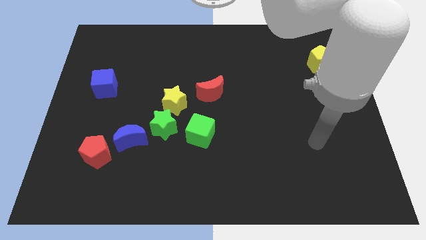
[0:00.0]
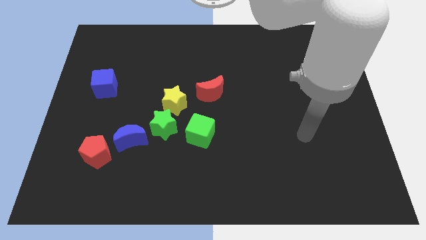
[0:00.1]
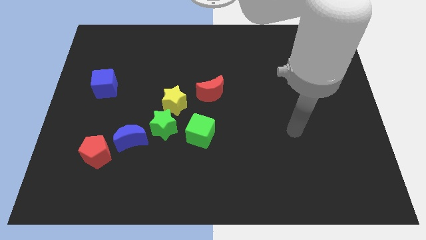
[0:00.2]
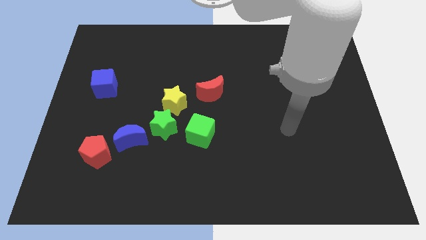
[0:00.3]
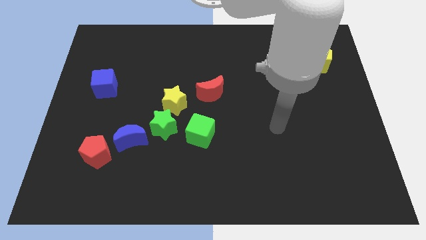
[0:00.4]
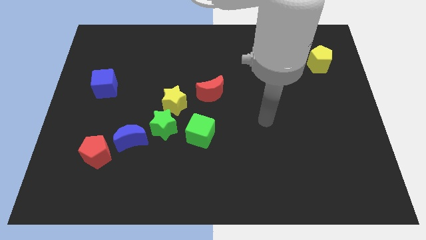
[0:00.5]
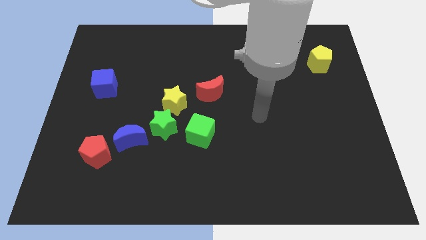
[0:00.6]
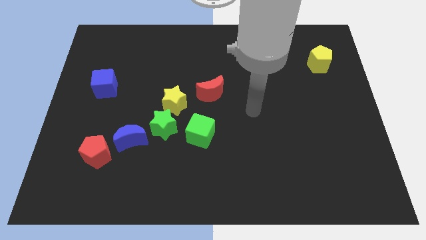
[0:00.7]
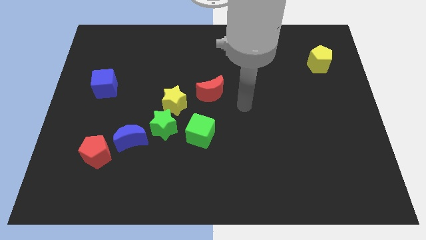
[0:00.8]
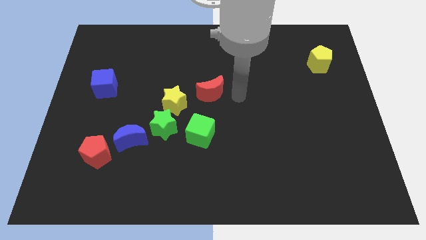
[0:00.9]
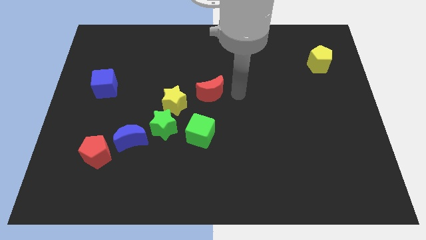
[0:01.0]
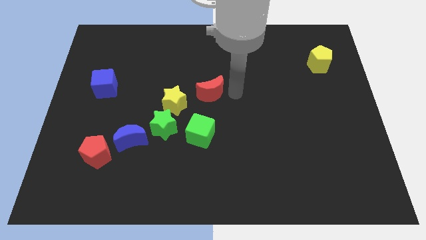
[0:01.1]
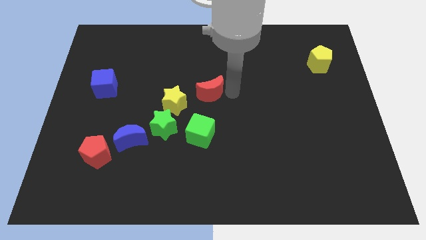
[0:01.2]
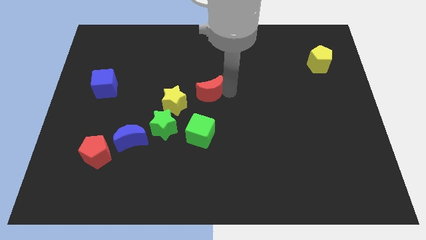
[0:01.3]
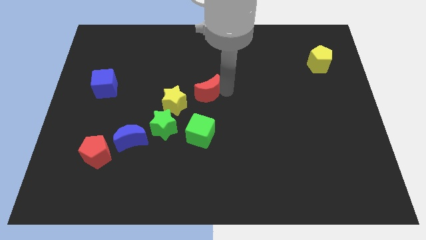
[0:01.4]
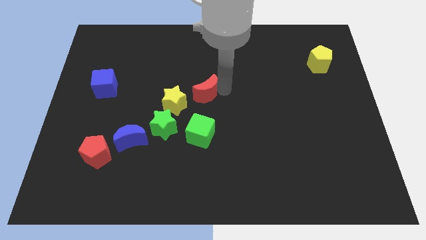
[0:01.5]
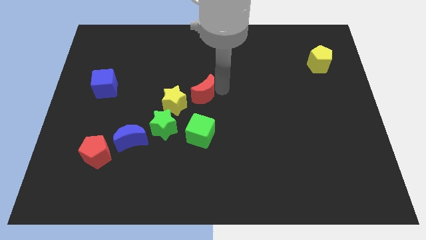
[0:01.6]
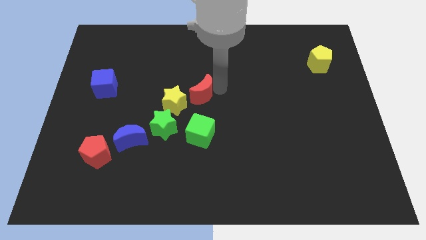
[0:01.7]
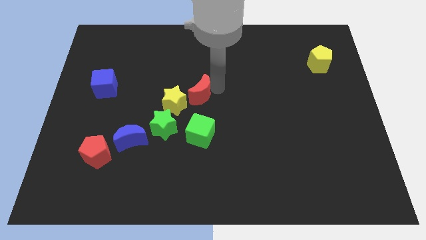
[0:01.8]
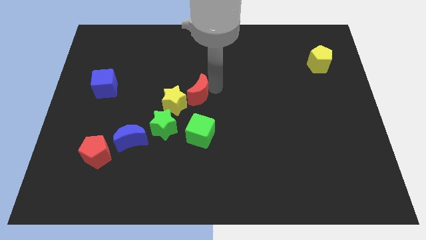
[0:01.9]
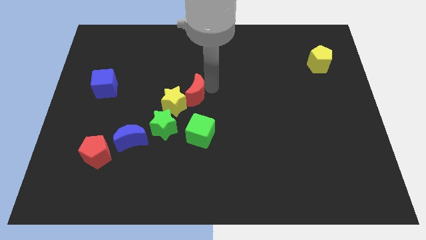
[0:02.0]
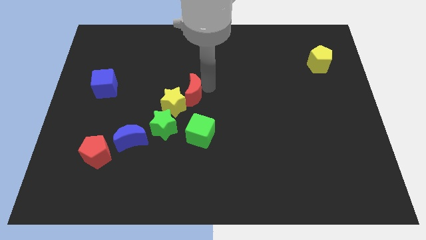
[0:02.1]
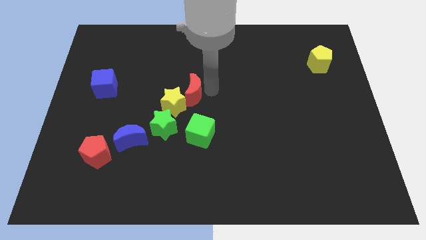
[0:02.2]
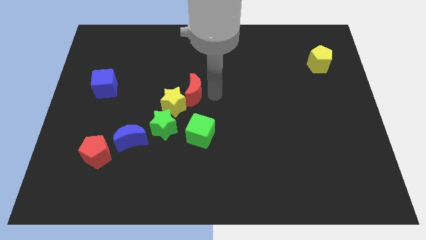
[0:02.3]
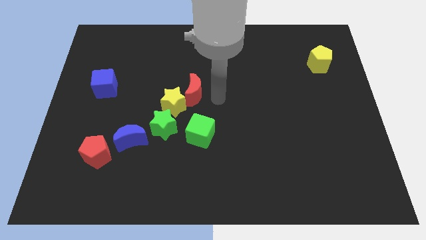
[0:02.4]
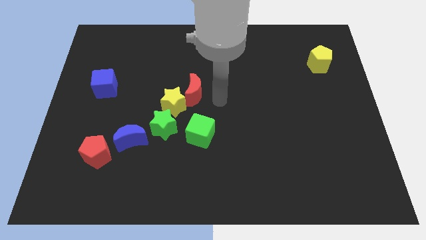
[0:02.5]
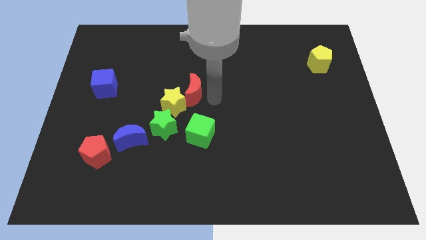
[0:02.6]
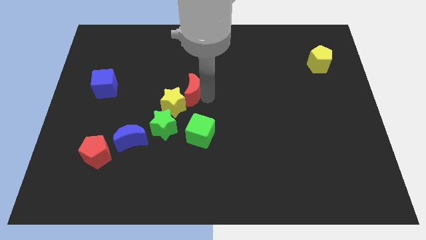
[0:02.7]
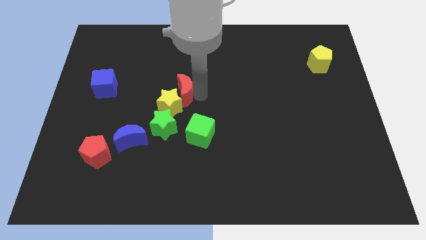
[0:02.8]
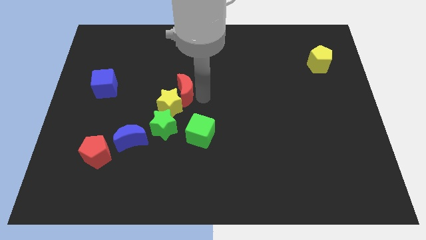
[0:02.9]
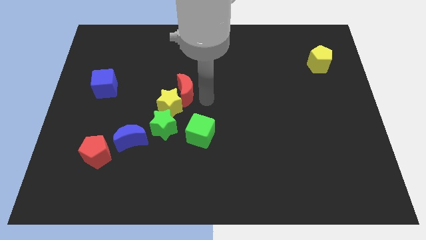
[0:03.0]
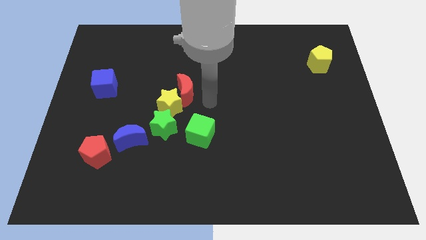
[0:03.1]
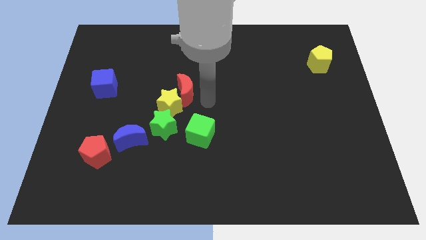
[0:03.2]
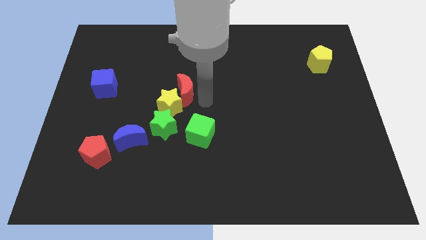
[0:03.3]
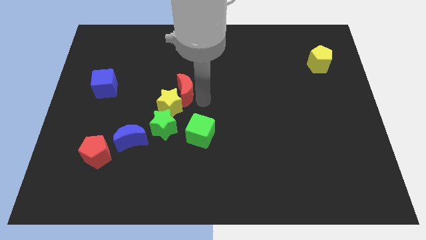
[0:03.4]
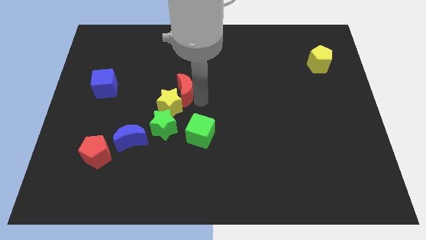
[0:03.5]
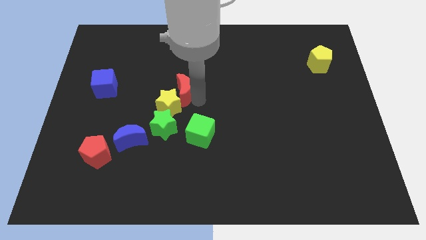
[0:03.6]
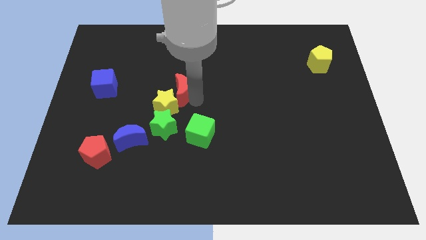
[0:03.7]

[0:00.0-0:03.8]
slightly push the red moon left

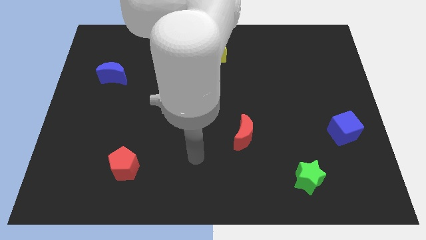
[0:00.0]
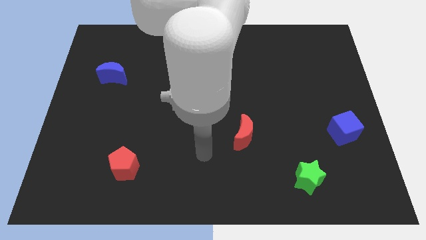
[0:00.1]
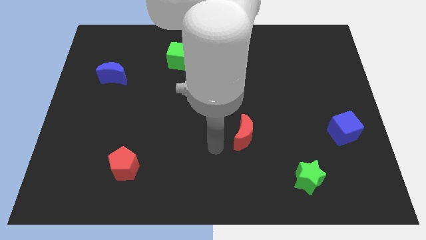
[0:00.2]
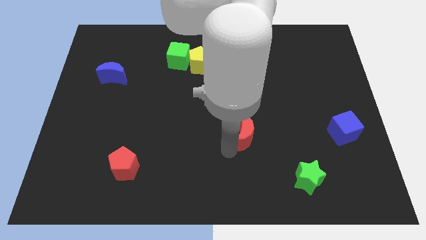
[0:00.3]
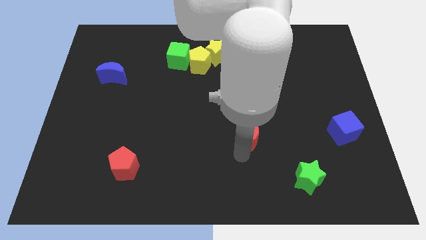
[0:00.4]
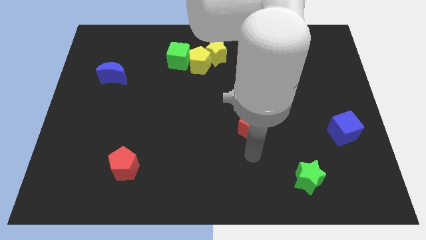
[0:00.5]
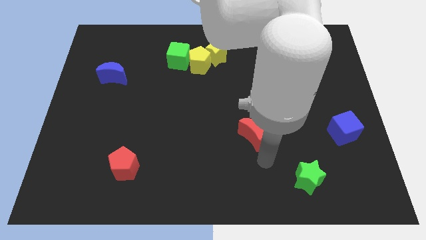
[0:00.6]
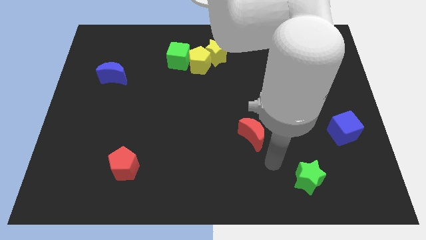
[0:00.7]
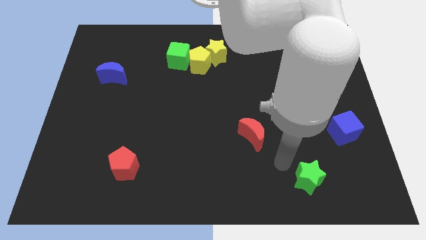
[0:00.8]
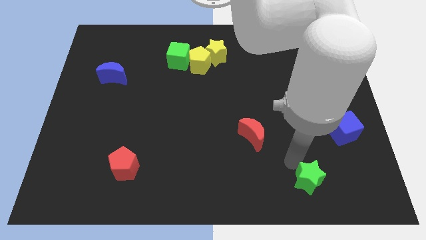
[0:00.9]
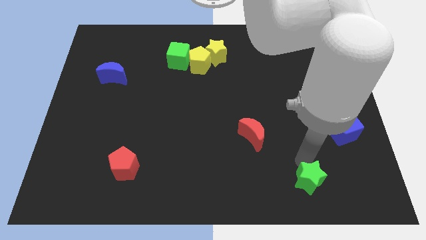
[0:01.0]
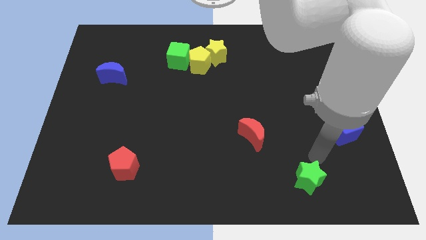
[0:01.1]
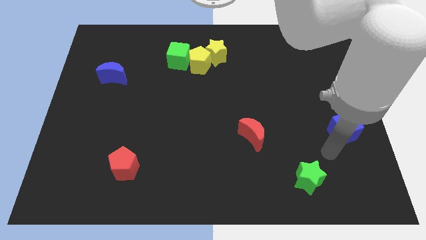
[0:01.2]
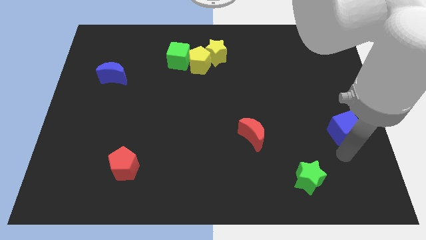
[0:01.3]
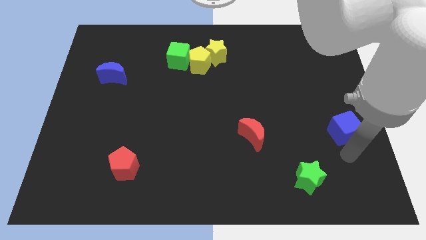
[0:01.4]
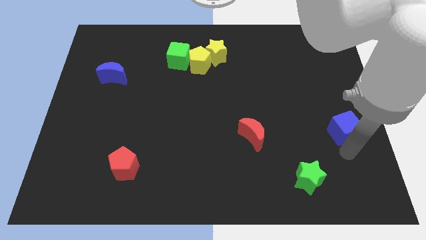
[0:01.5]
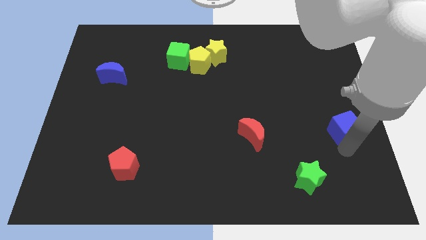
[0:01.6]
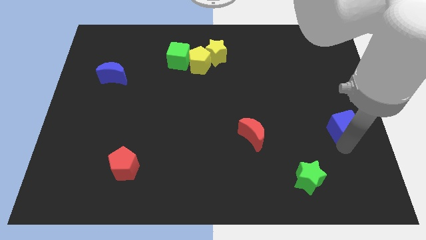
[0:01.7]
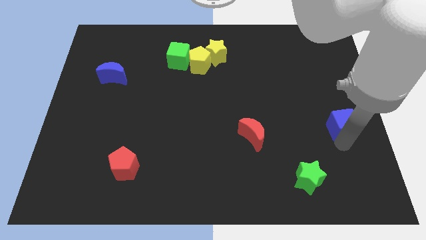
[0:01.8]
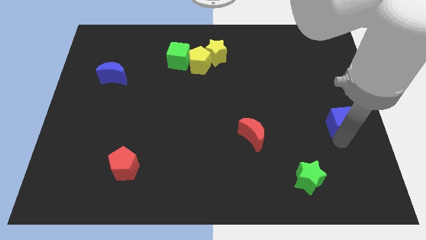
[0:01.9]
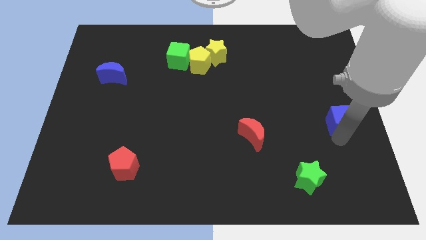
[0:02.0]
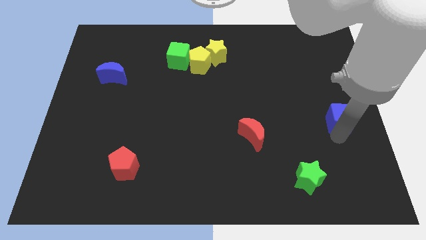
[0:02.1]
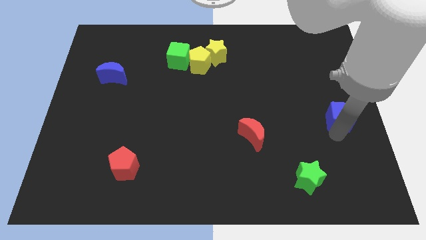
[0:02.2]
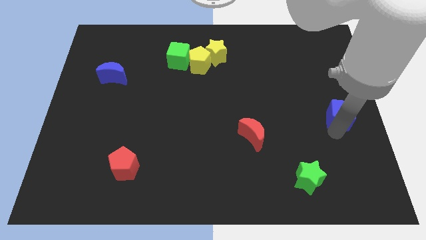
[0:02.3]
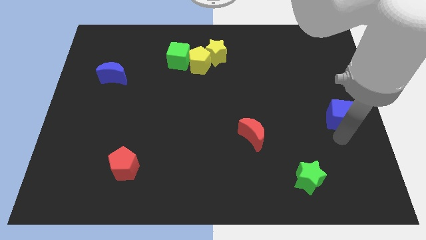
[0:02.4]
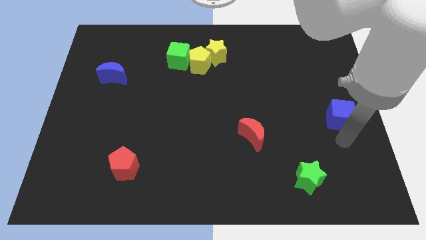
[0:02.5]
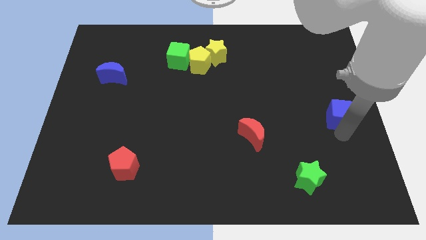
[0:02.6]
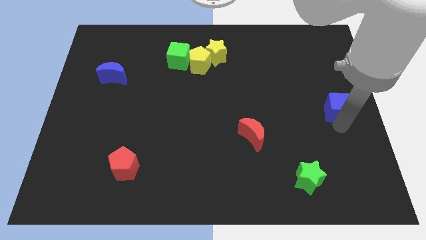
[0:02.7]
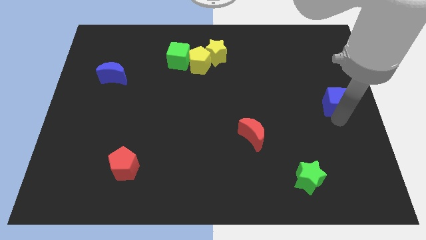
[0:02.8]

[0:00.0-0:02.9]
slightly slide the blue cube upwards

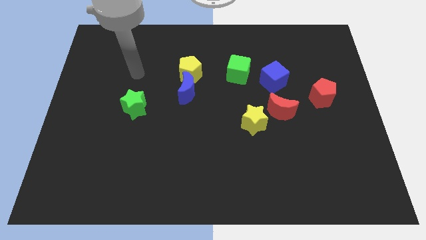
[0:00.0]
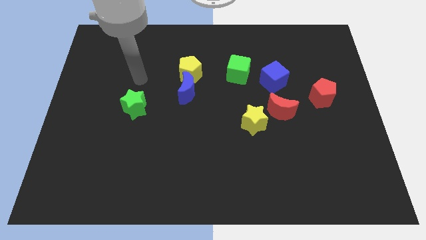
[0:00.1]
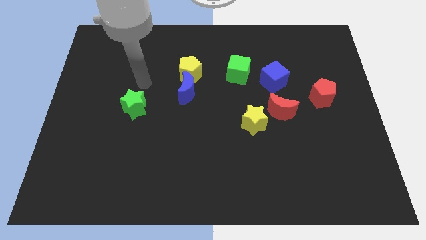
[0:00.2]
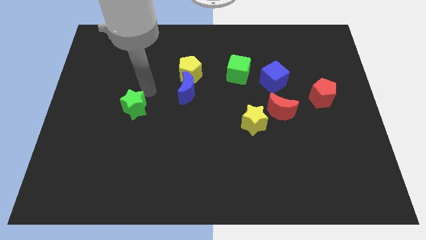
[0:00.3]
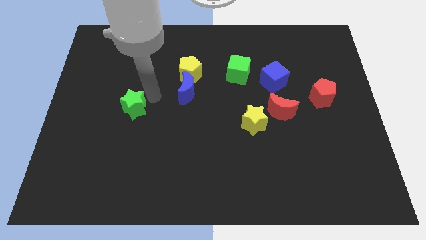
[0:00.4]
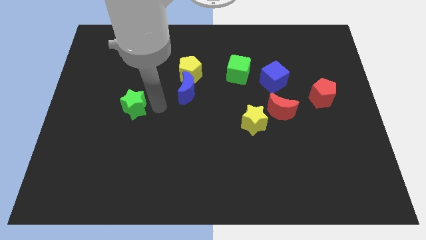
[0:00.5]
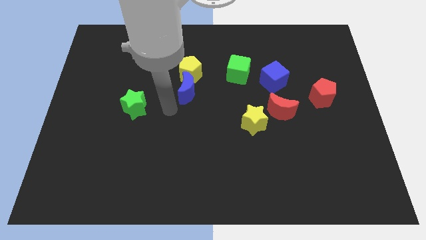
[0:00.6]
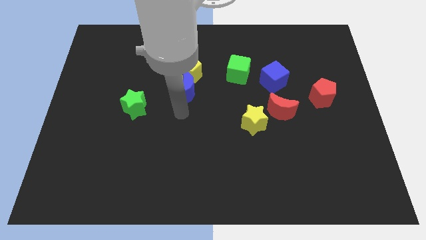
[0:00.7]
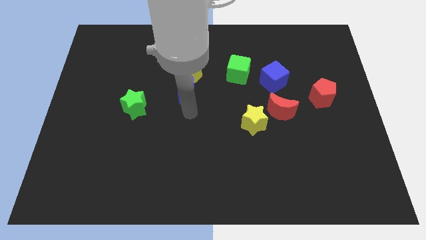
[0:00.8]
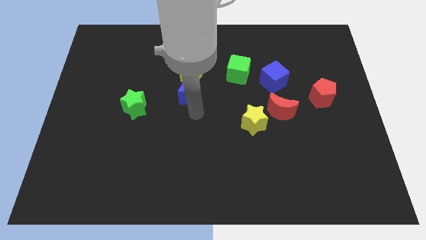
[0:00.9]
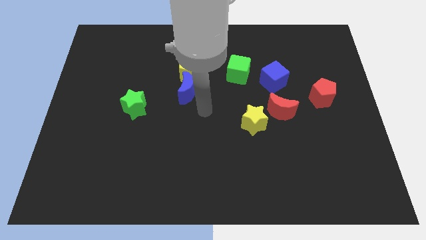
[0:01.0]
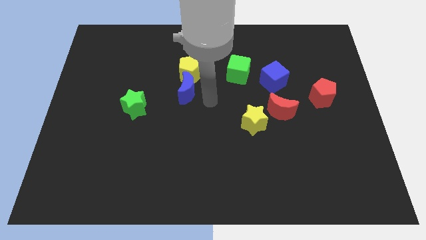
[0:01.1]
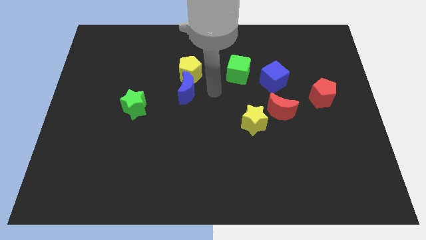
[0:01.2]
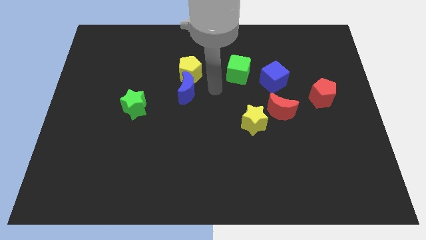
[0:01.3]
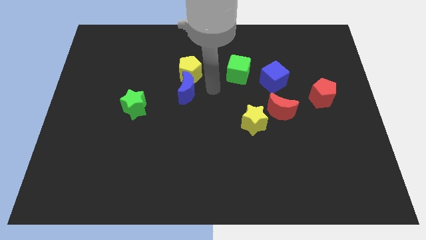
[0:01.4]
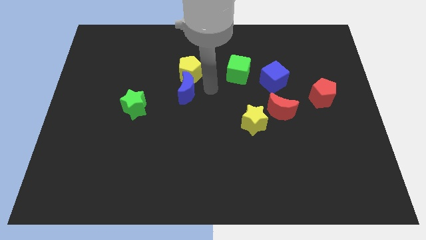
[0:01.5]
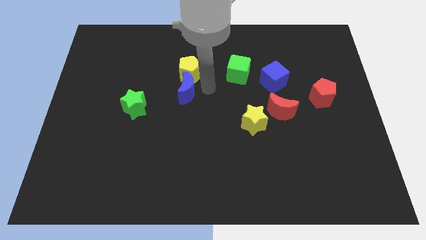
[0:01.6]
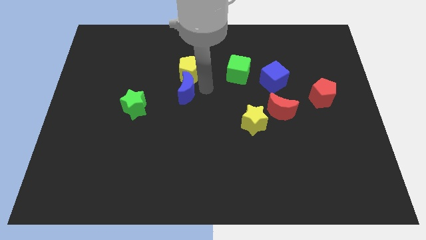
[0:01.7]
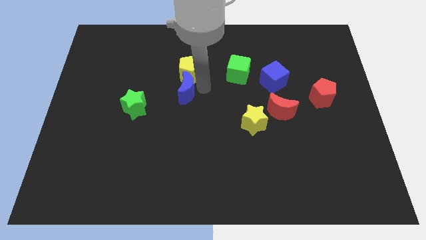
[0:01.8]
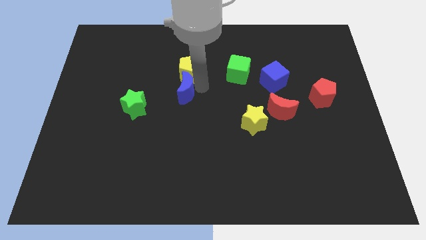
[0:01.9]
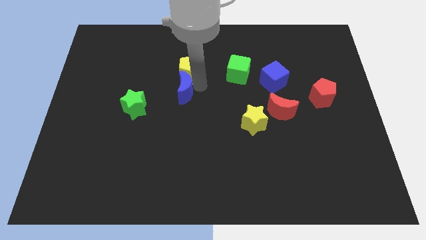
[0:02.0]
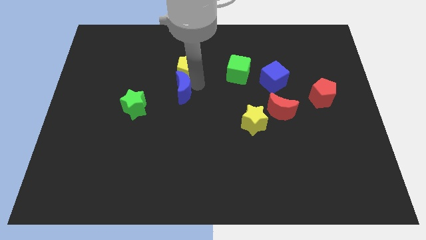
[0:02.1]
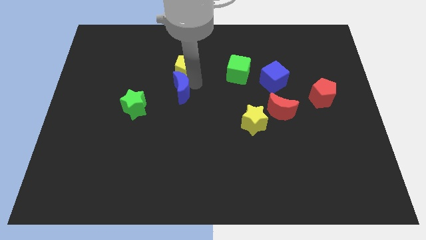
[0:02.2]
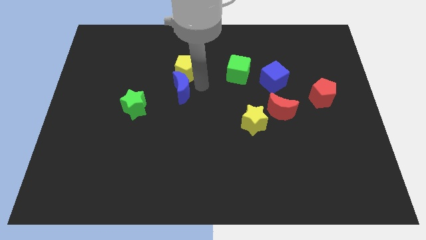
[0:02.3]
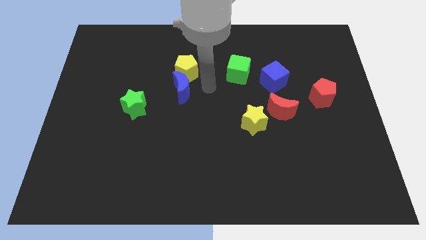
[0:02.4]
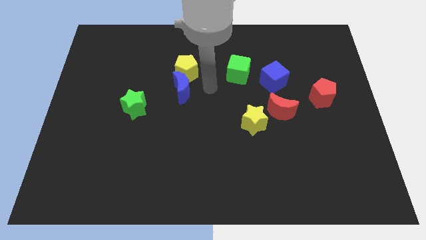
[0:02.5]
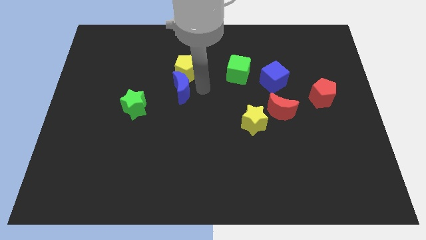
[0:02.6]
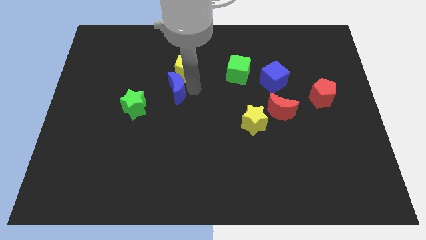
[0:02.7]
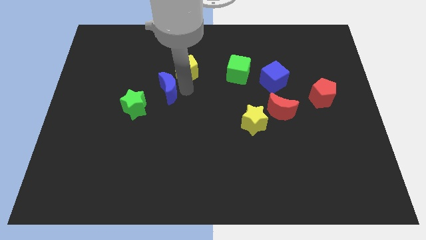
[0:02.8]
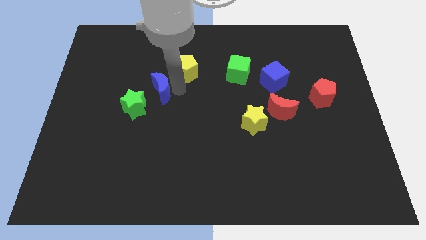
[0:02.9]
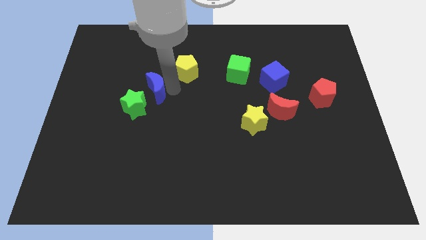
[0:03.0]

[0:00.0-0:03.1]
move the blue moon left somewhat
